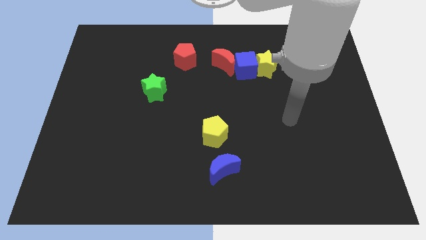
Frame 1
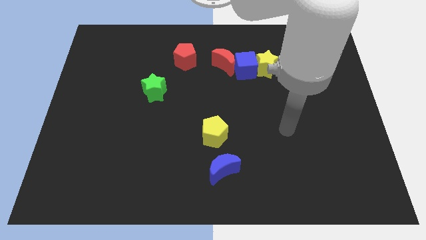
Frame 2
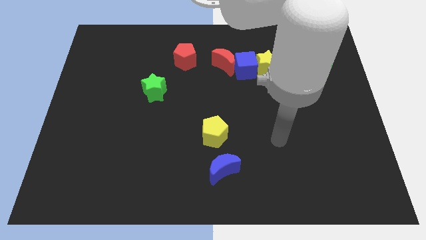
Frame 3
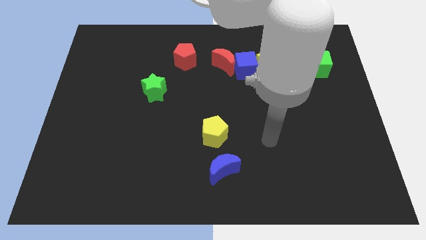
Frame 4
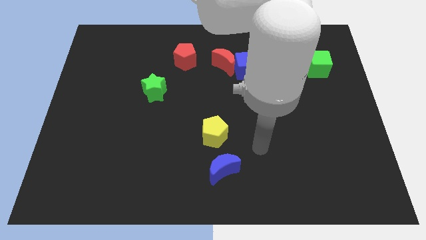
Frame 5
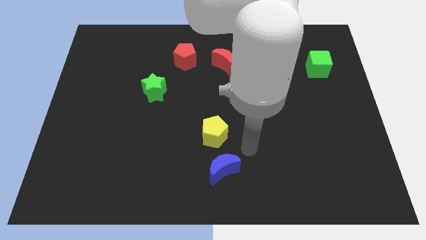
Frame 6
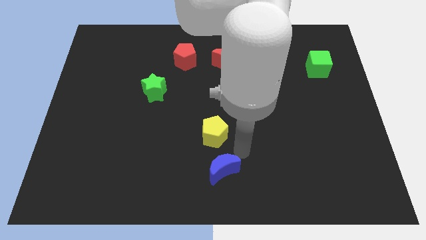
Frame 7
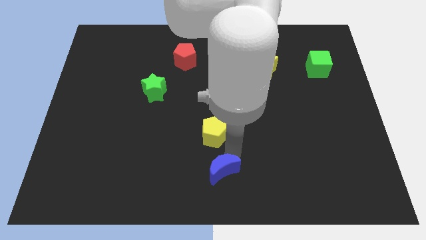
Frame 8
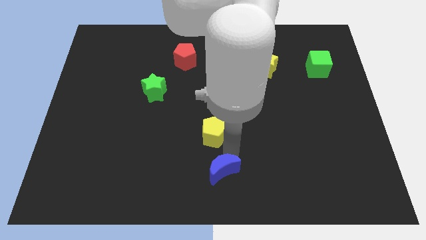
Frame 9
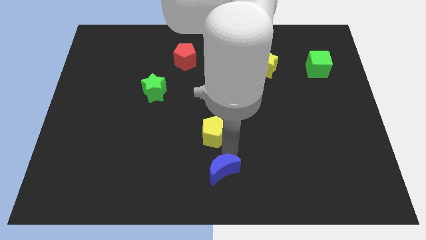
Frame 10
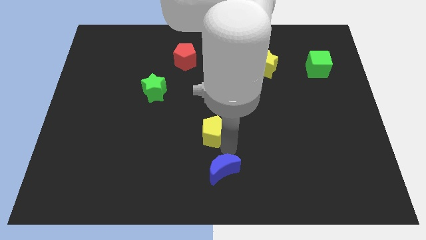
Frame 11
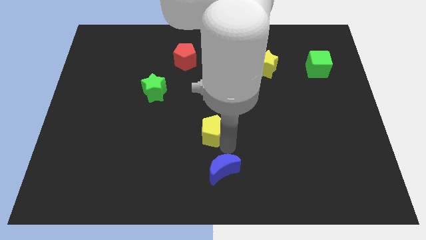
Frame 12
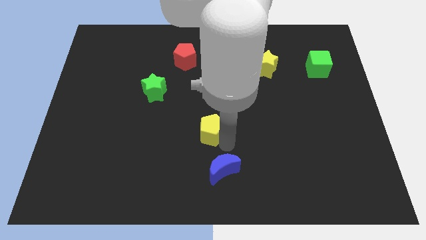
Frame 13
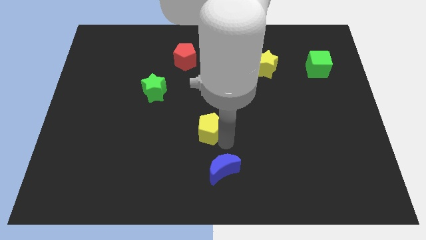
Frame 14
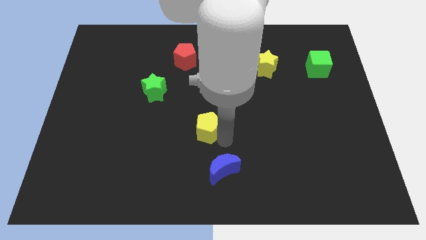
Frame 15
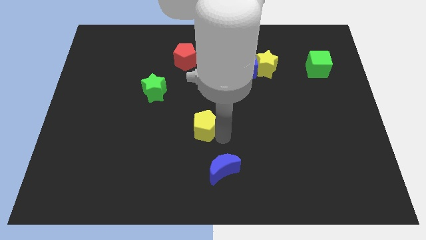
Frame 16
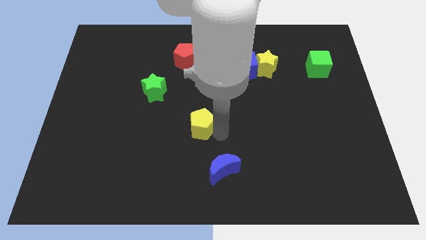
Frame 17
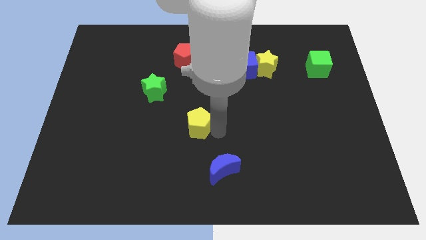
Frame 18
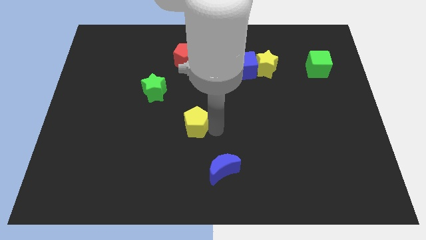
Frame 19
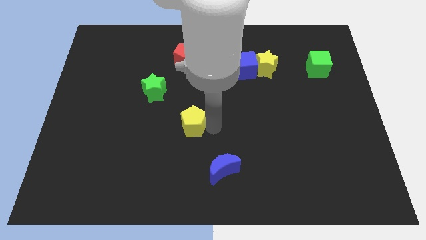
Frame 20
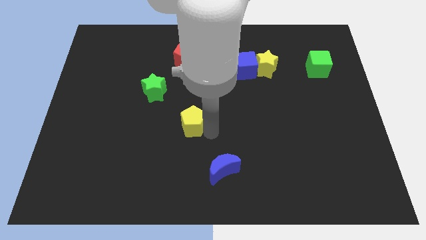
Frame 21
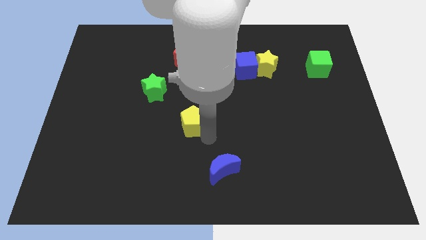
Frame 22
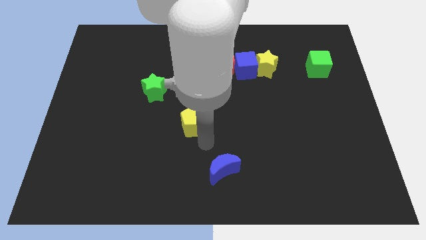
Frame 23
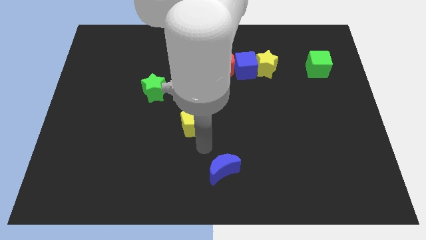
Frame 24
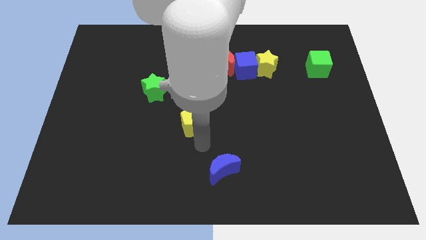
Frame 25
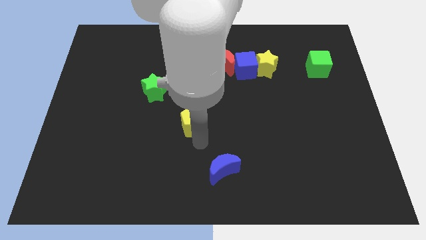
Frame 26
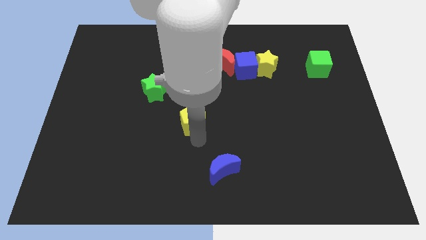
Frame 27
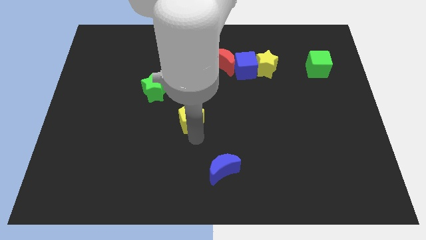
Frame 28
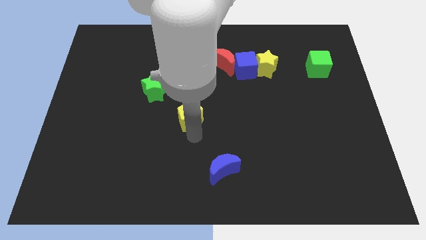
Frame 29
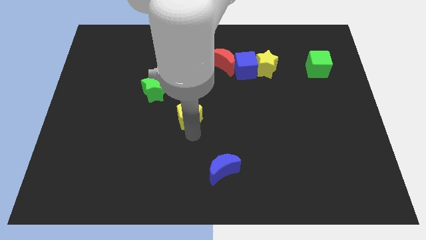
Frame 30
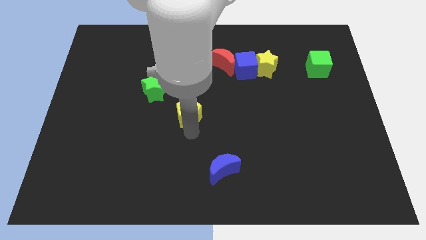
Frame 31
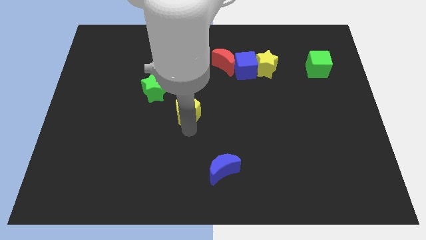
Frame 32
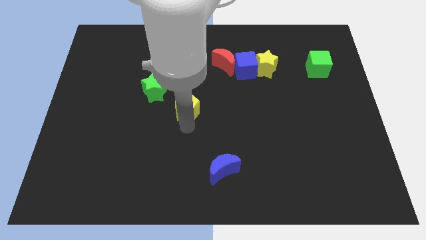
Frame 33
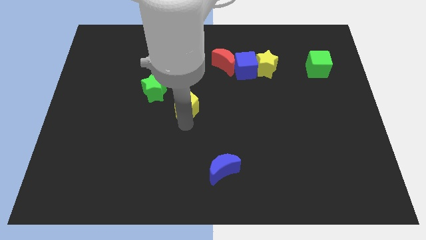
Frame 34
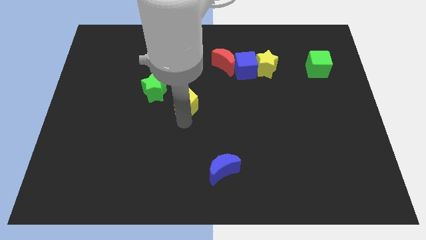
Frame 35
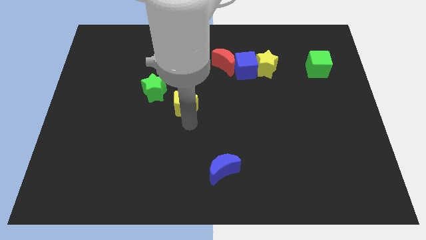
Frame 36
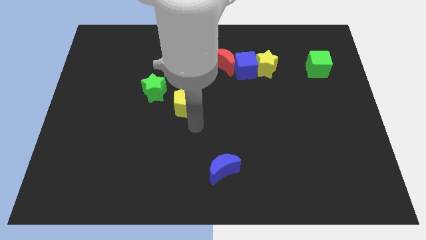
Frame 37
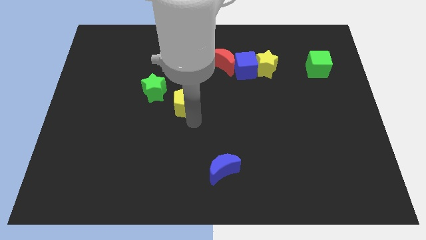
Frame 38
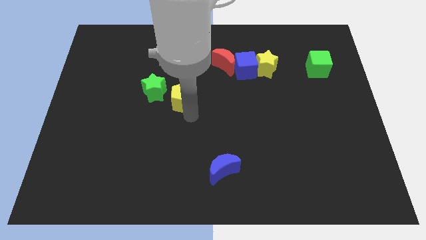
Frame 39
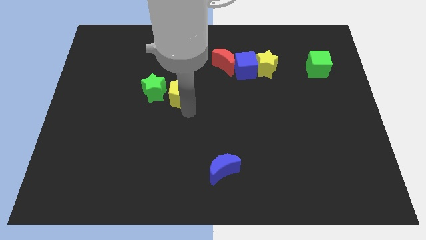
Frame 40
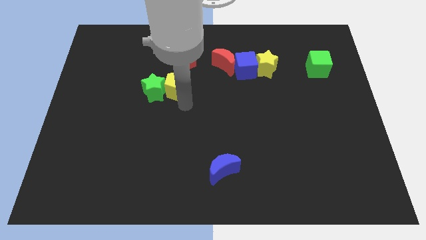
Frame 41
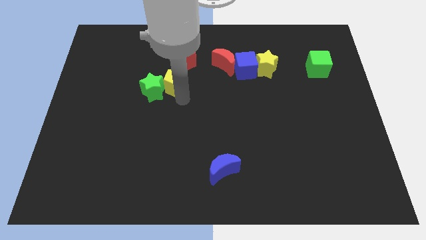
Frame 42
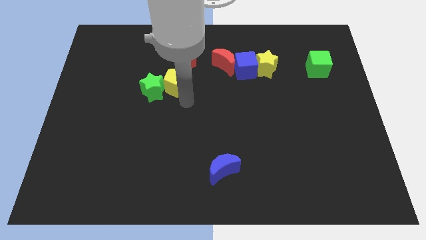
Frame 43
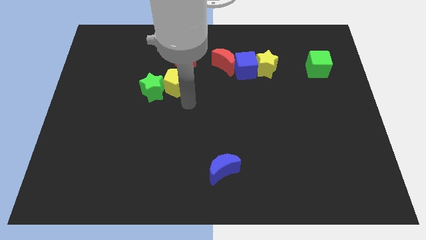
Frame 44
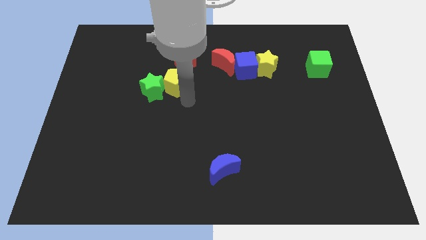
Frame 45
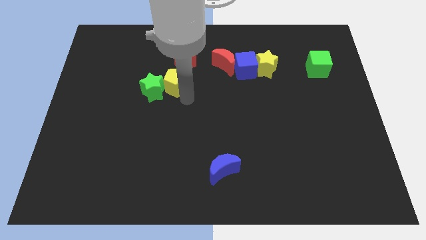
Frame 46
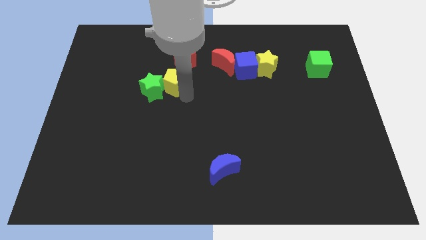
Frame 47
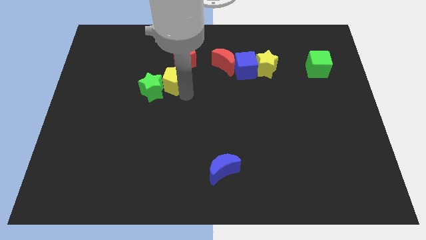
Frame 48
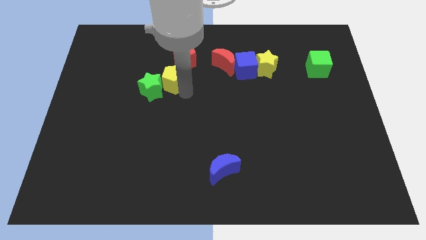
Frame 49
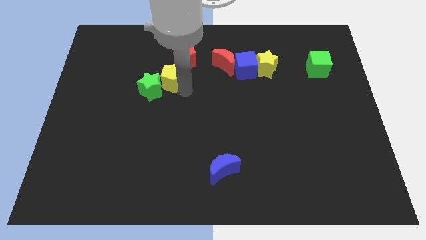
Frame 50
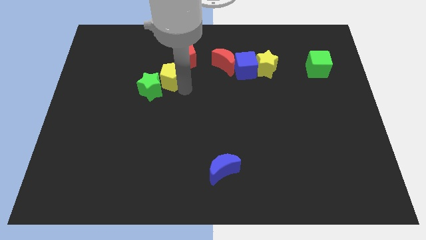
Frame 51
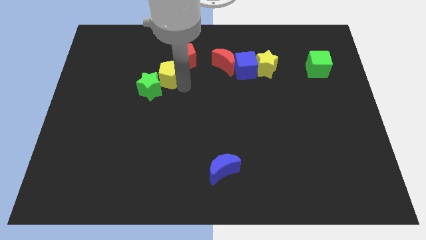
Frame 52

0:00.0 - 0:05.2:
push the yellow pentagon to the top side of the green star

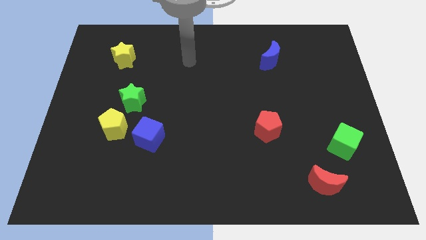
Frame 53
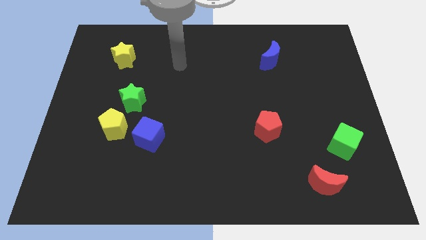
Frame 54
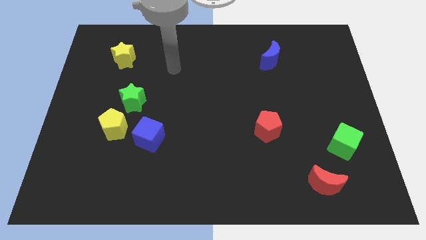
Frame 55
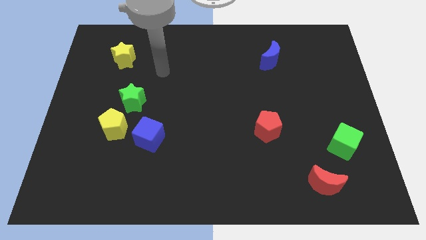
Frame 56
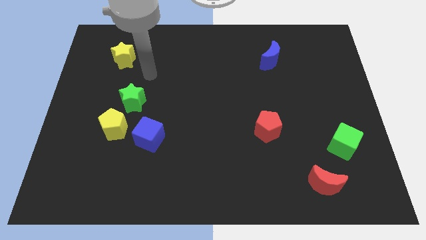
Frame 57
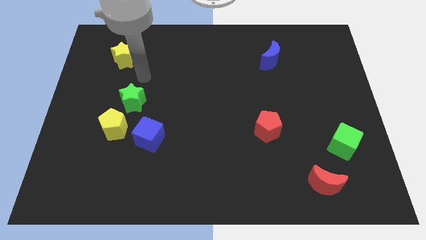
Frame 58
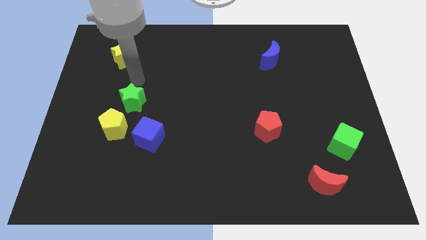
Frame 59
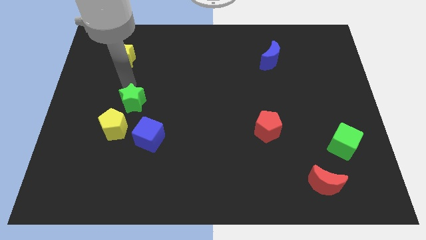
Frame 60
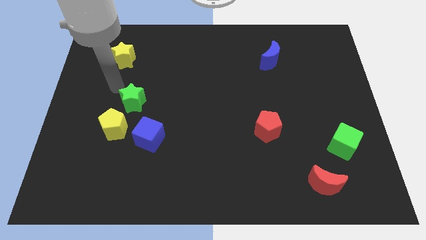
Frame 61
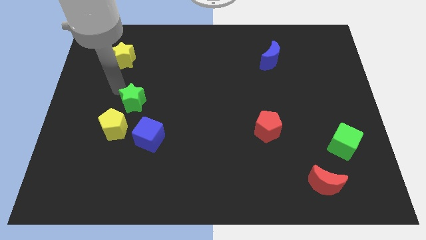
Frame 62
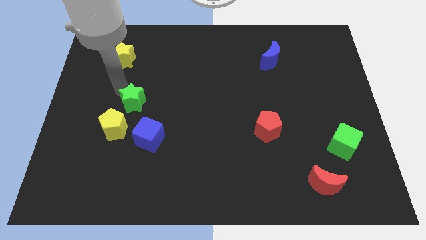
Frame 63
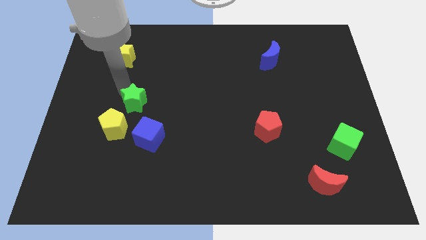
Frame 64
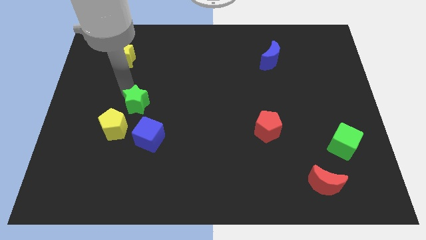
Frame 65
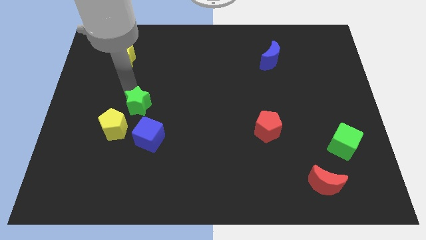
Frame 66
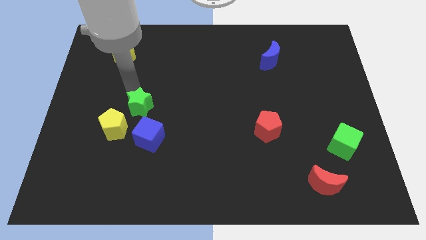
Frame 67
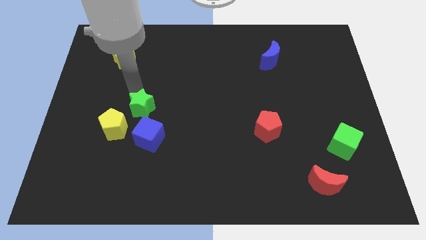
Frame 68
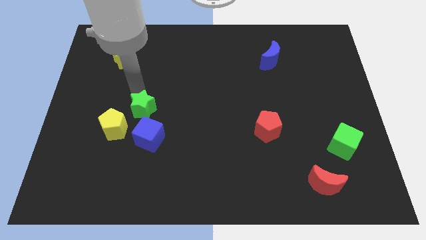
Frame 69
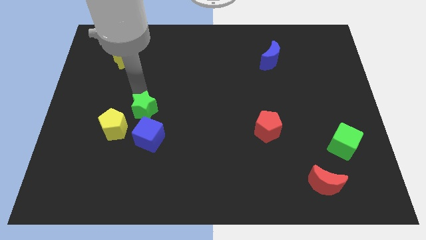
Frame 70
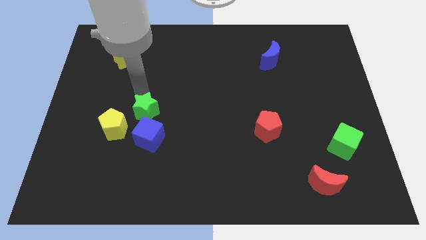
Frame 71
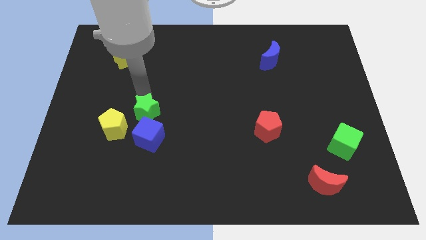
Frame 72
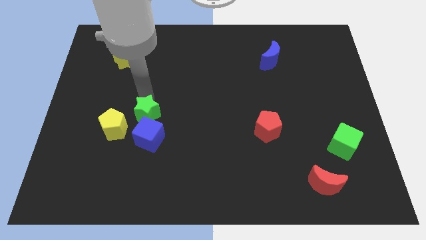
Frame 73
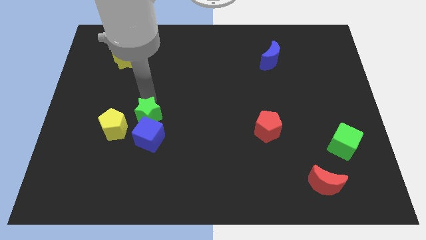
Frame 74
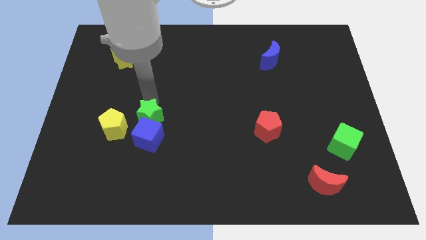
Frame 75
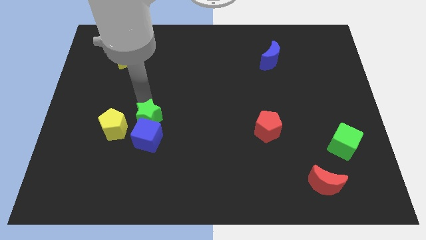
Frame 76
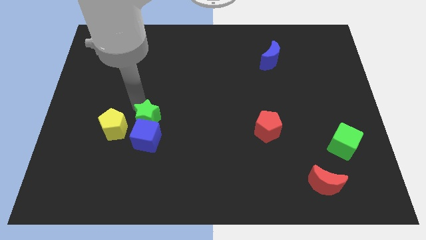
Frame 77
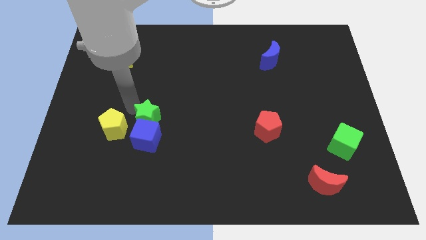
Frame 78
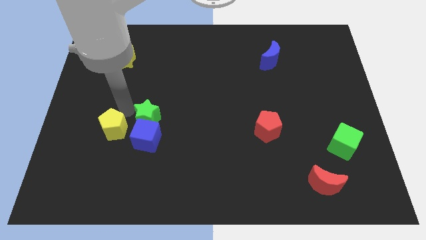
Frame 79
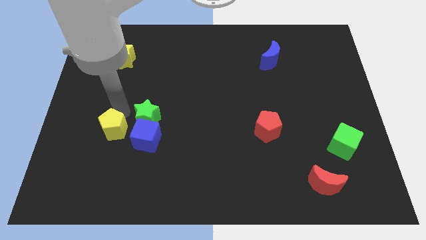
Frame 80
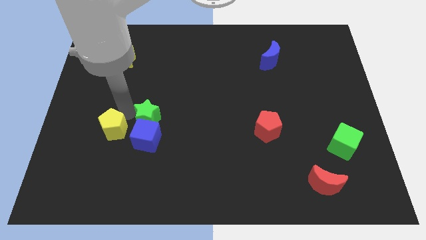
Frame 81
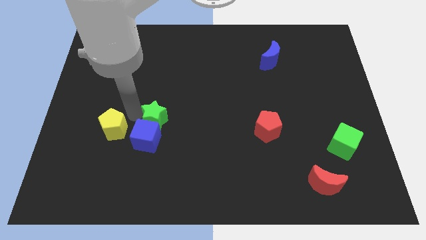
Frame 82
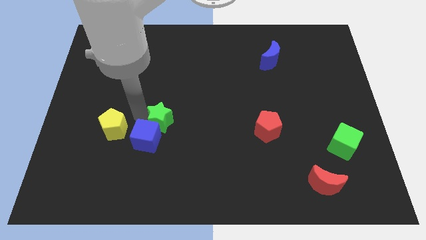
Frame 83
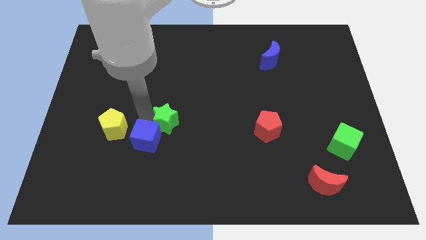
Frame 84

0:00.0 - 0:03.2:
push the green star to the right of the blue cube
